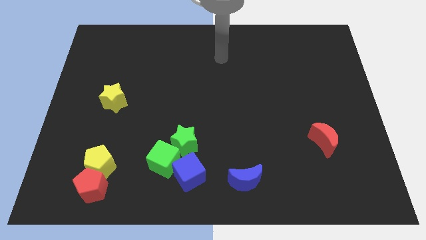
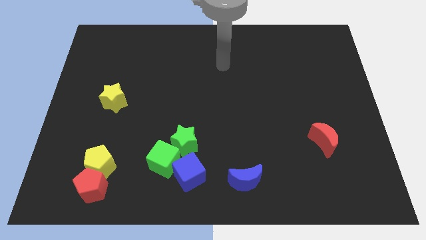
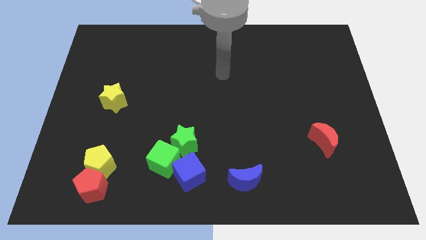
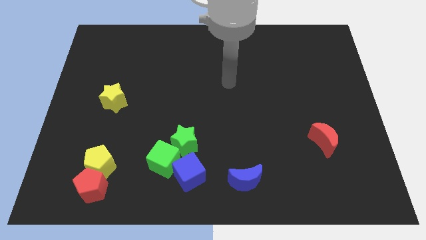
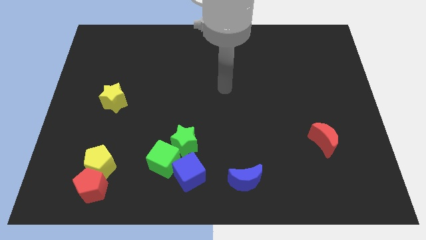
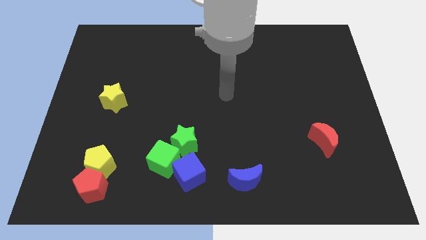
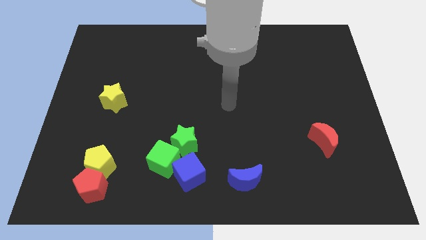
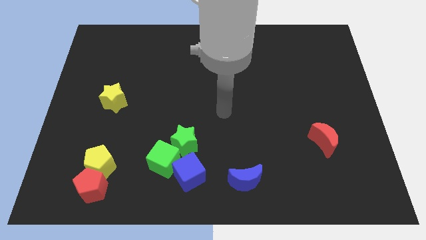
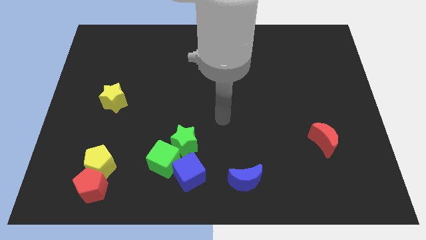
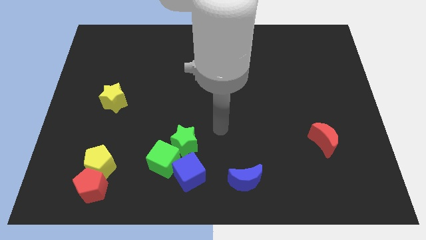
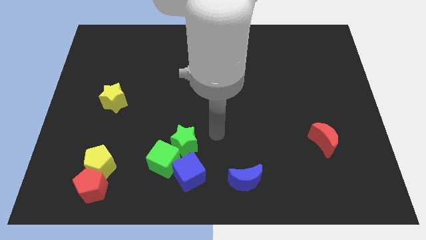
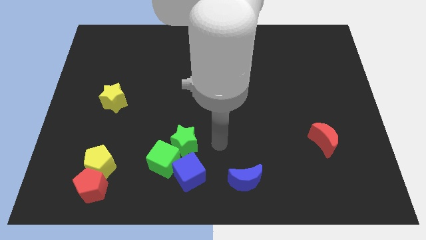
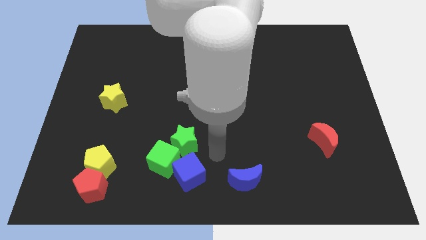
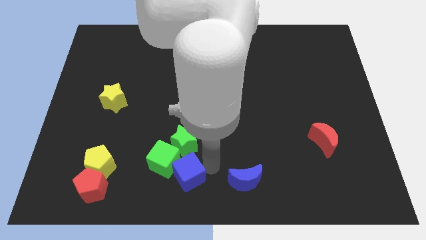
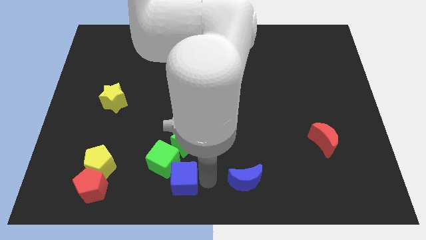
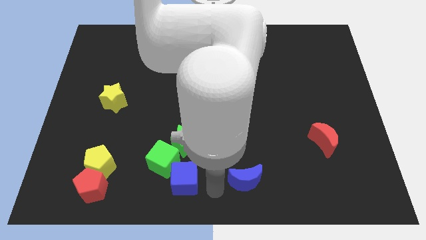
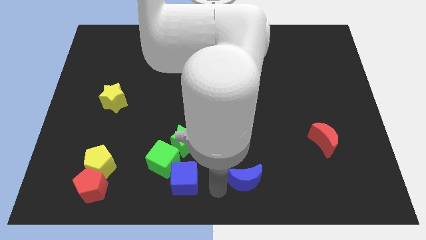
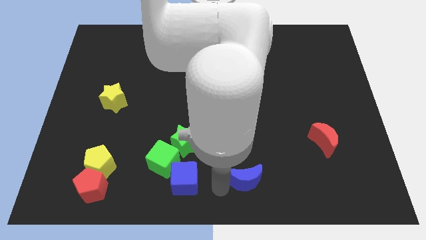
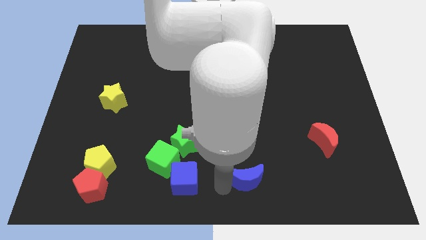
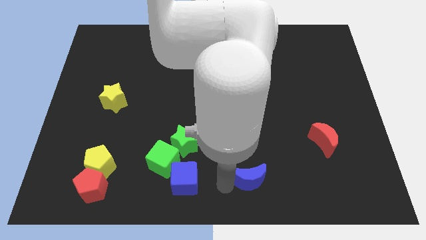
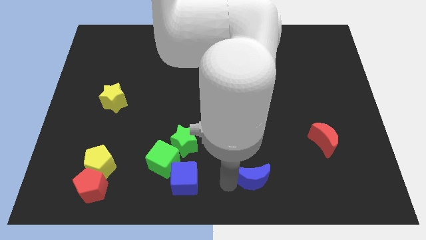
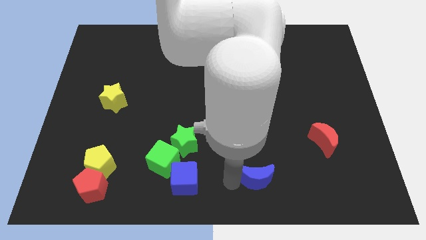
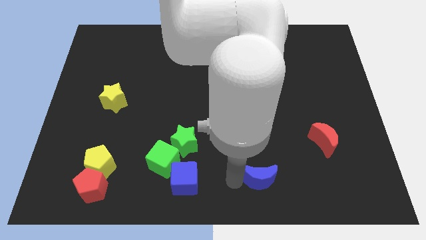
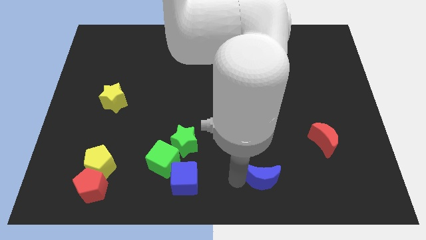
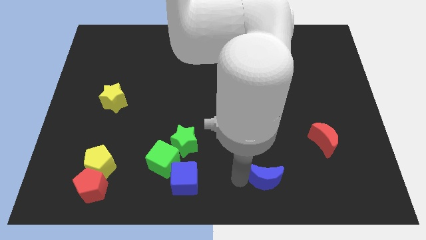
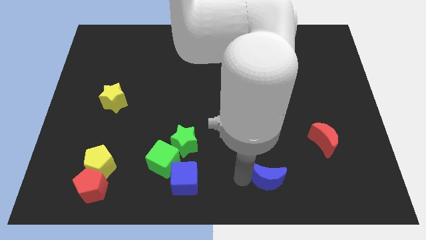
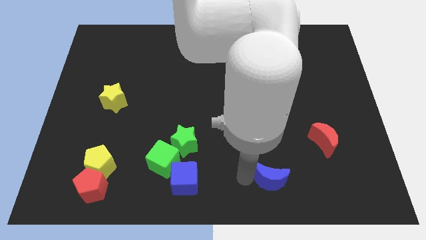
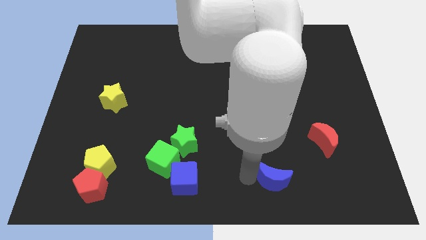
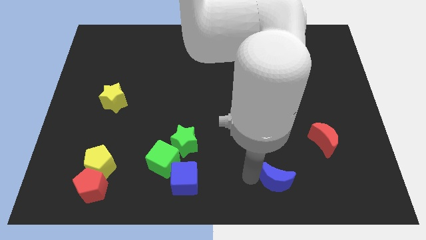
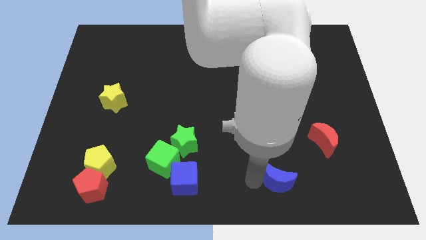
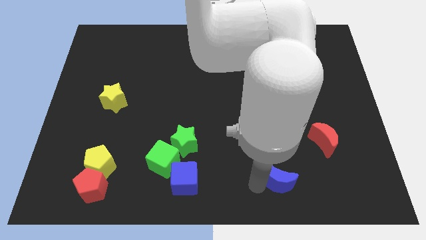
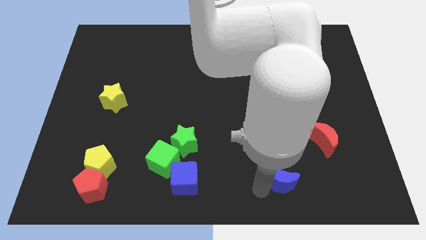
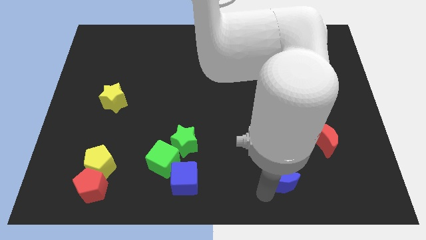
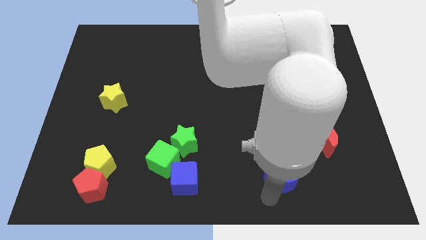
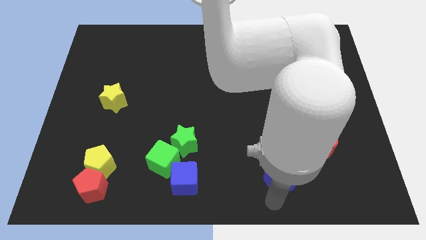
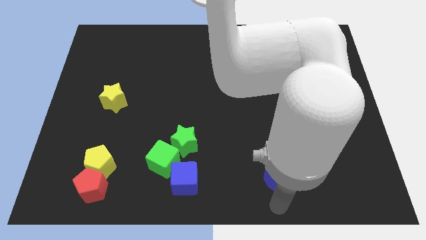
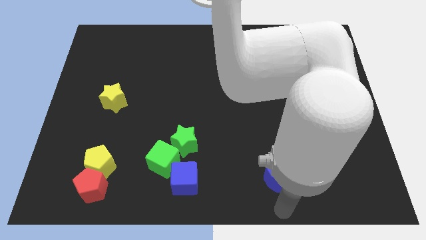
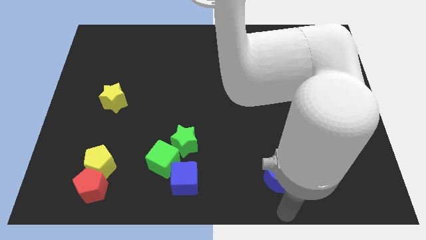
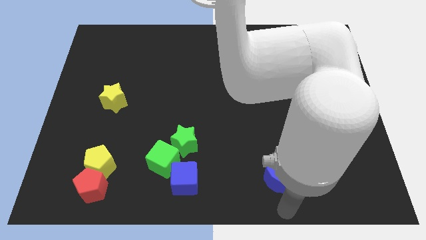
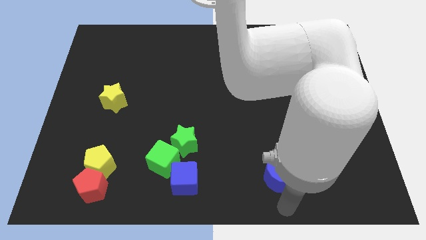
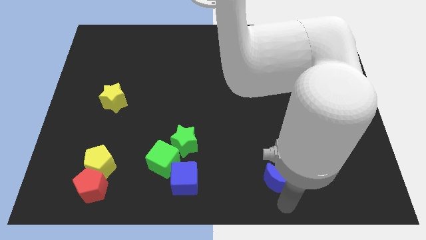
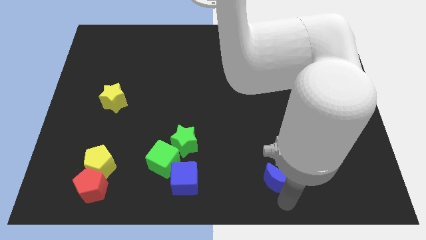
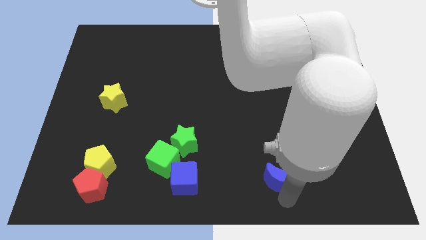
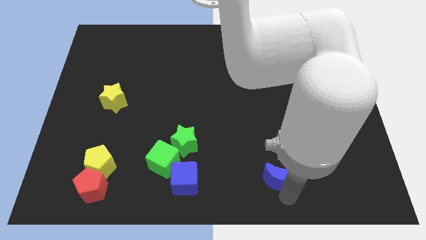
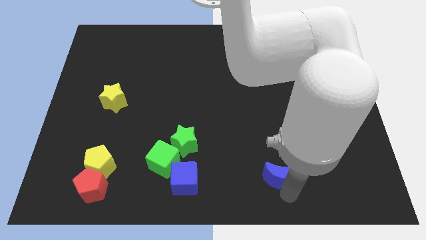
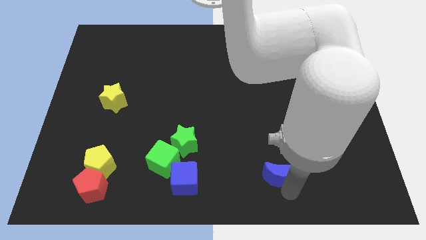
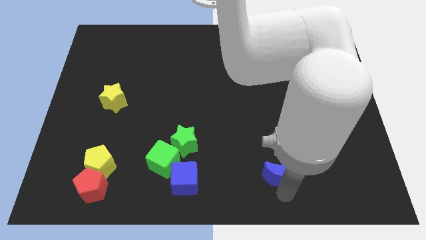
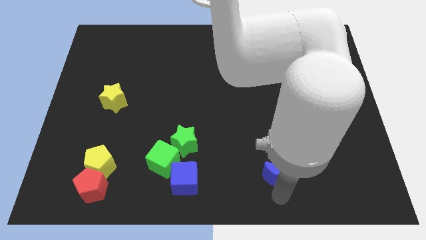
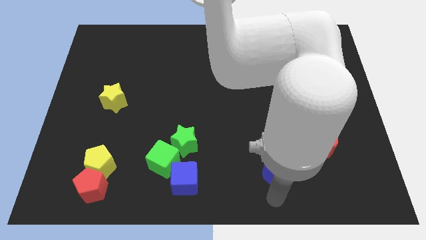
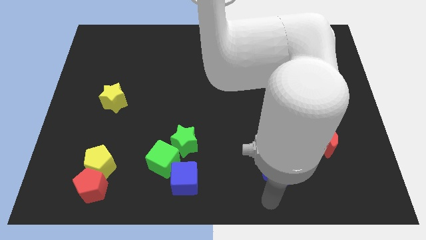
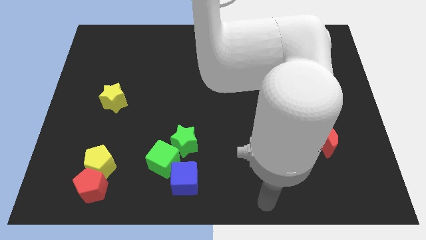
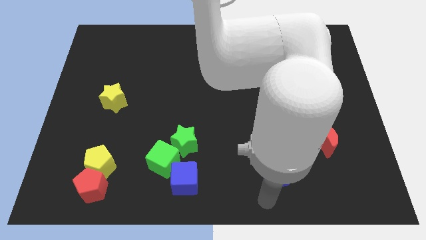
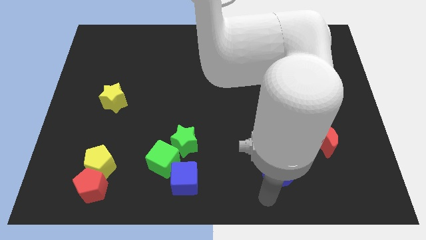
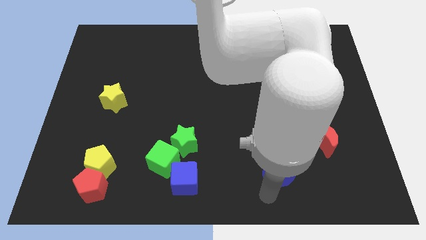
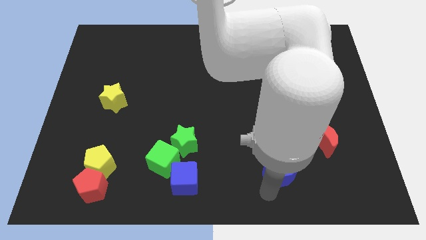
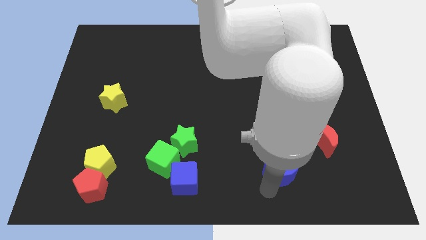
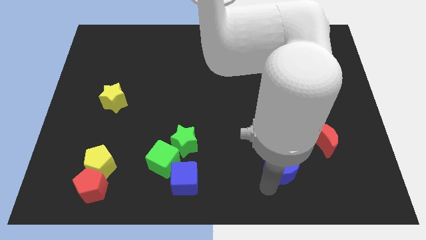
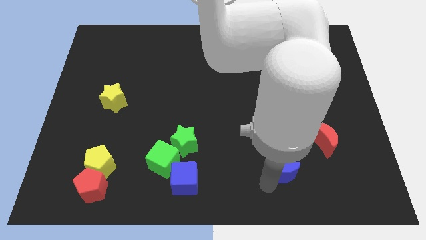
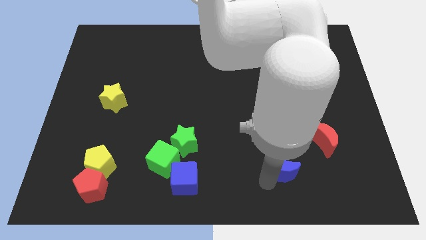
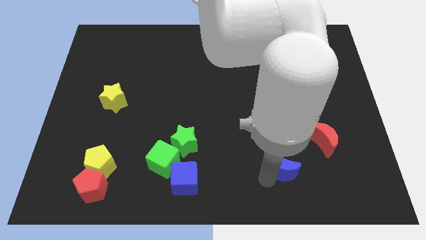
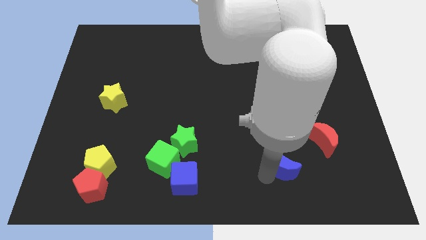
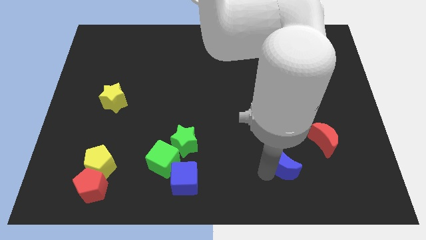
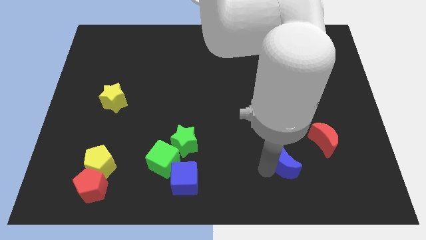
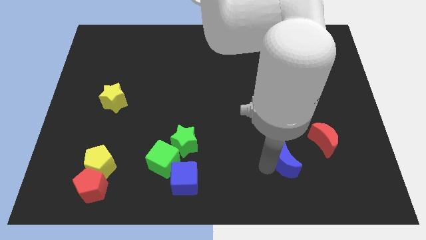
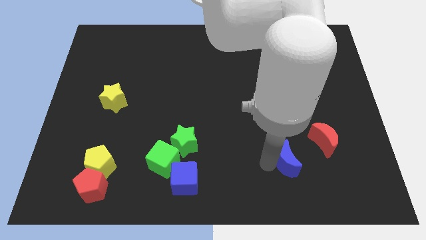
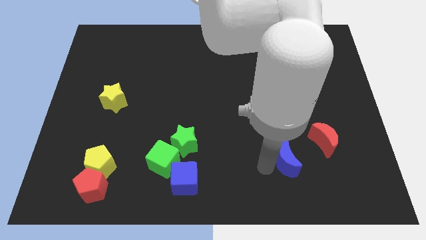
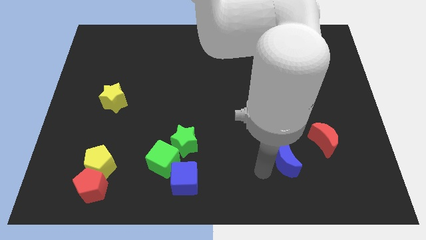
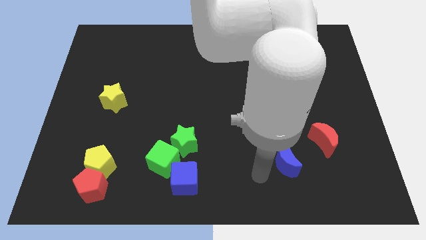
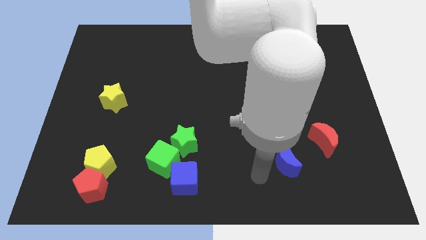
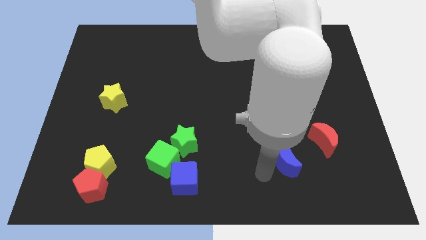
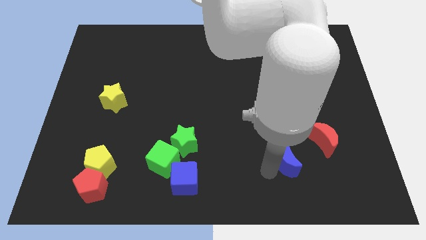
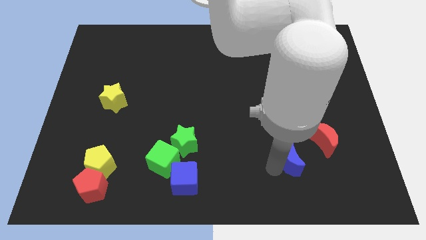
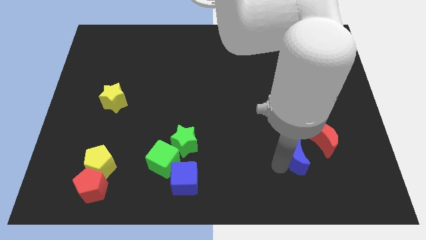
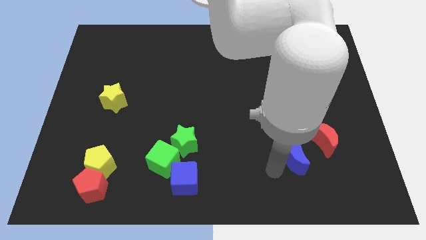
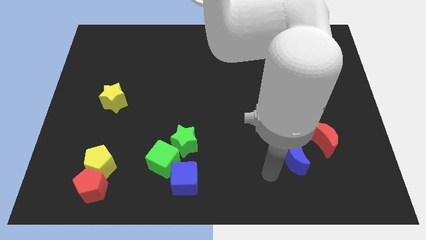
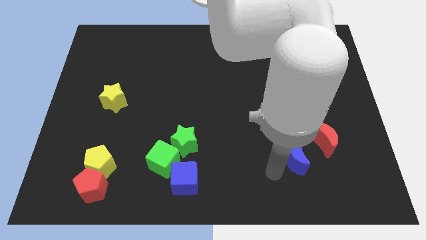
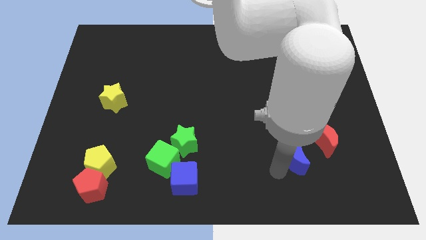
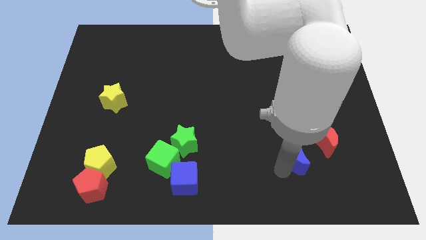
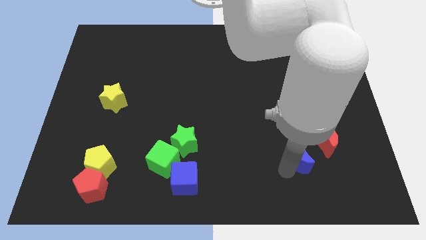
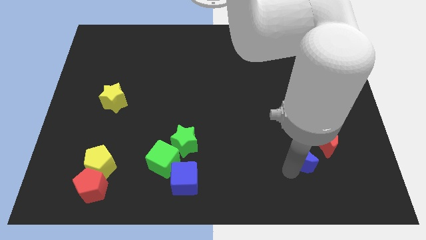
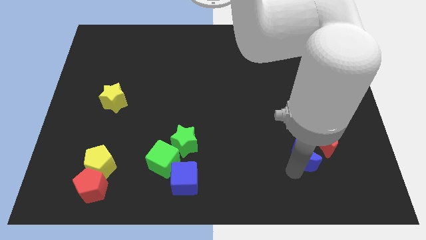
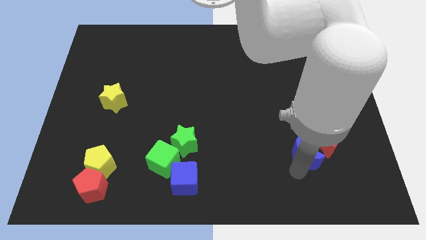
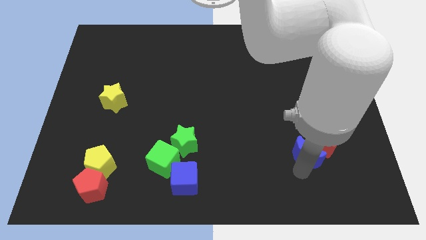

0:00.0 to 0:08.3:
put the blue moon close to the red moon
